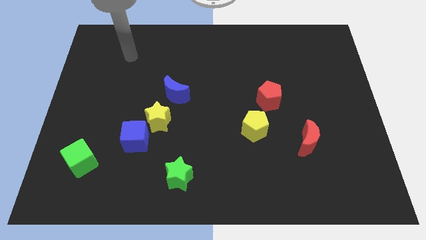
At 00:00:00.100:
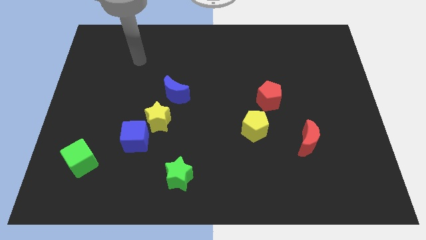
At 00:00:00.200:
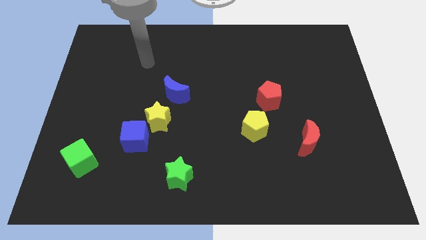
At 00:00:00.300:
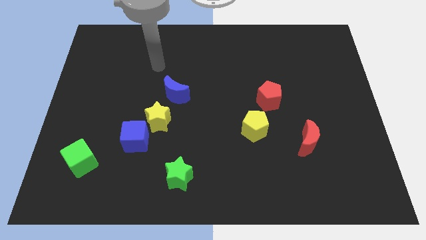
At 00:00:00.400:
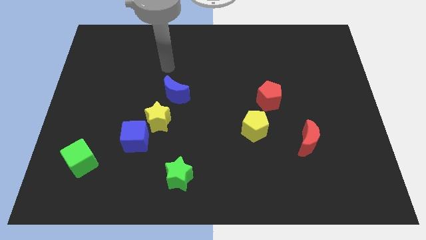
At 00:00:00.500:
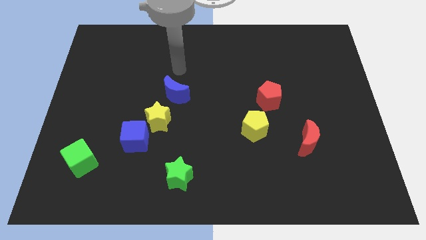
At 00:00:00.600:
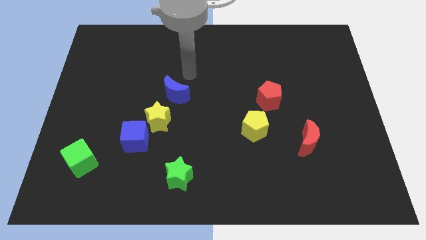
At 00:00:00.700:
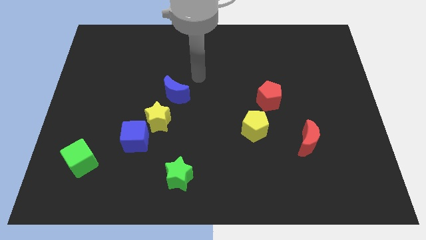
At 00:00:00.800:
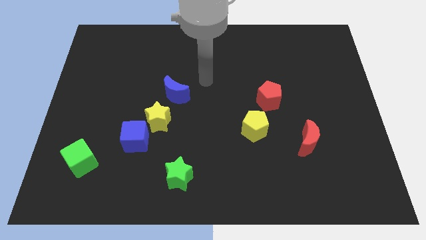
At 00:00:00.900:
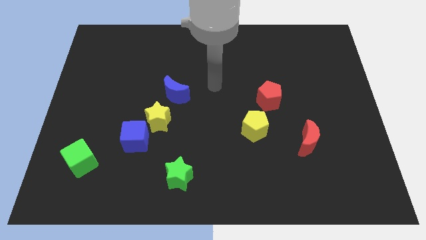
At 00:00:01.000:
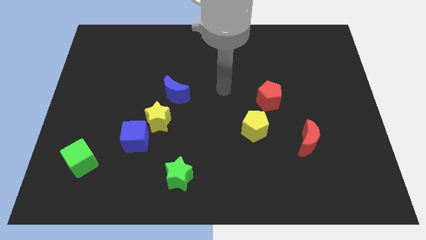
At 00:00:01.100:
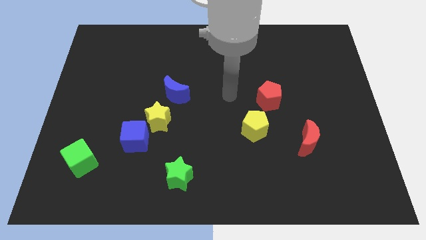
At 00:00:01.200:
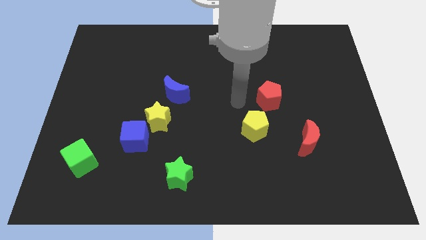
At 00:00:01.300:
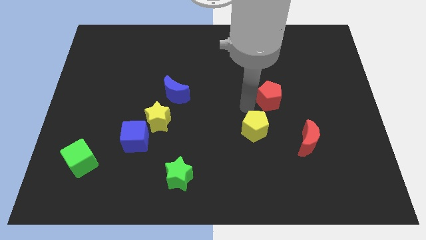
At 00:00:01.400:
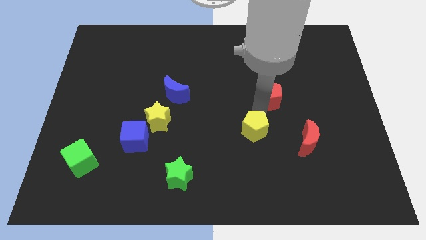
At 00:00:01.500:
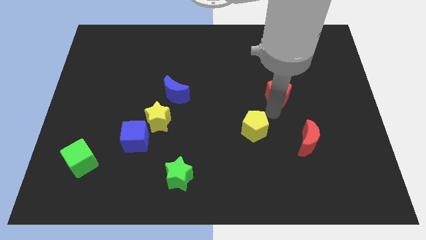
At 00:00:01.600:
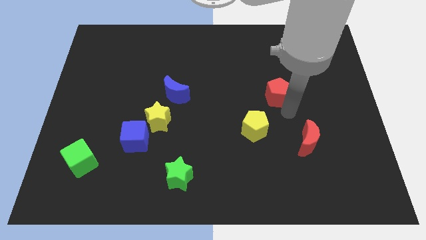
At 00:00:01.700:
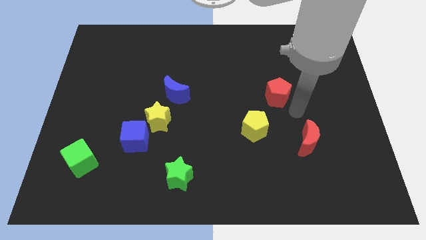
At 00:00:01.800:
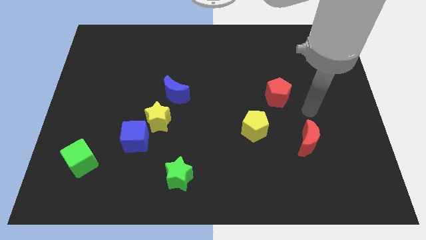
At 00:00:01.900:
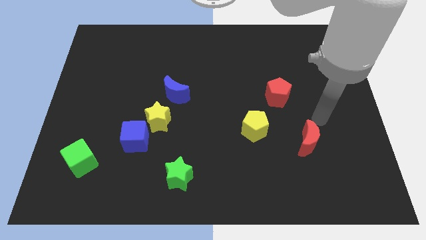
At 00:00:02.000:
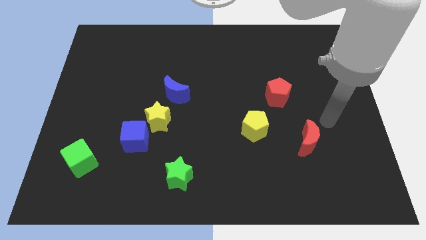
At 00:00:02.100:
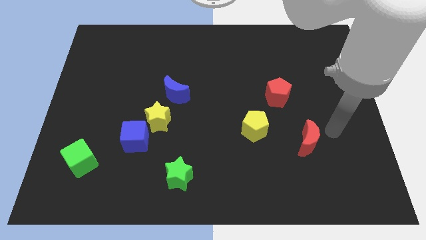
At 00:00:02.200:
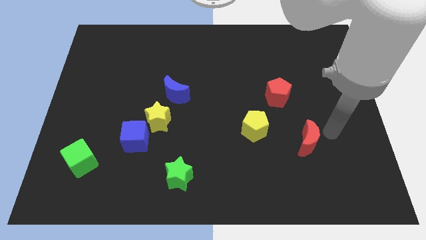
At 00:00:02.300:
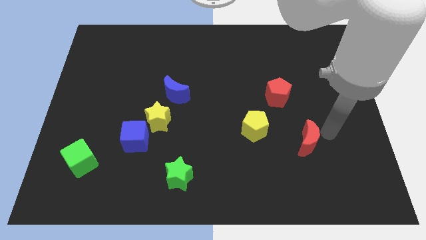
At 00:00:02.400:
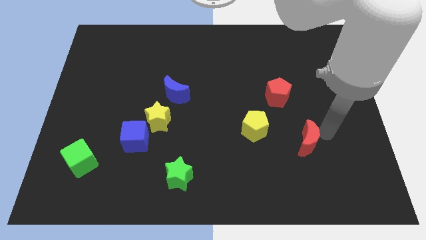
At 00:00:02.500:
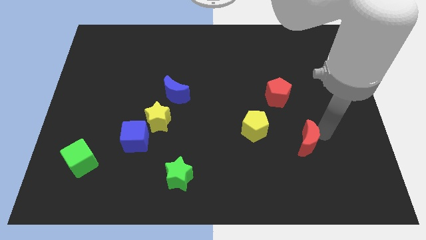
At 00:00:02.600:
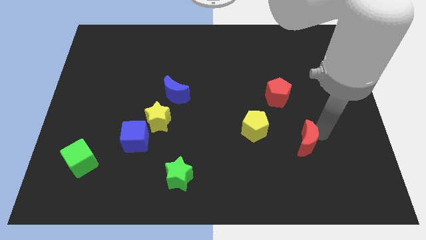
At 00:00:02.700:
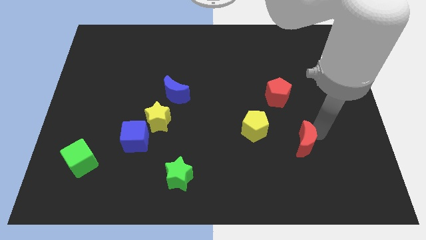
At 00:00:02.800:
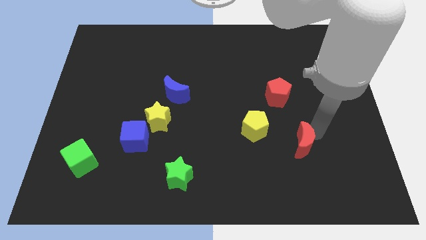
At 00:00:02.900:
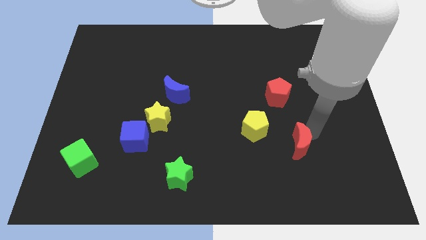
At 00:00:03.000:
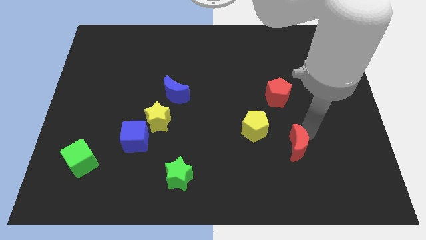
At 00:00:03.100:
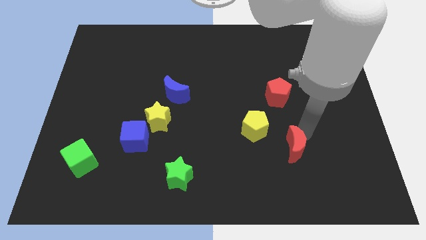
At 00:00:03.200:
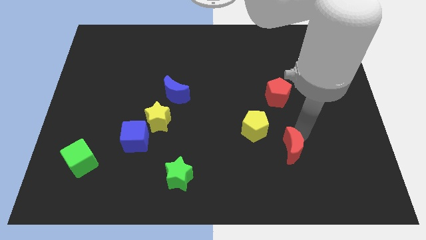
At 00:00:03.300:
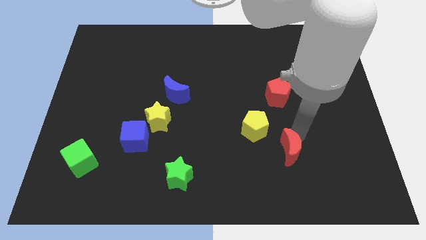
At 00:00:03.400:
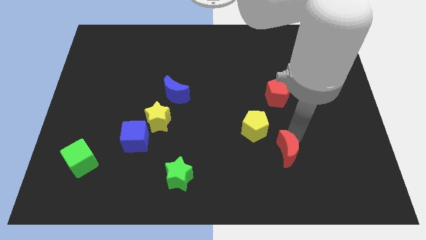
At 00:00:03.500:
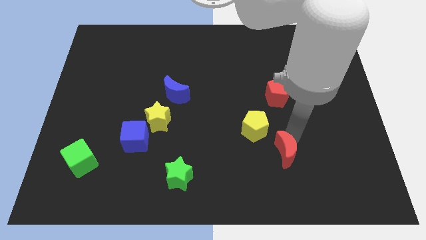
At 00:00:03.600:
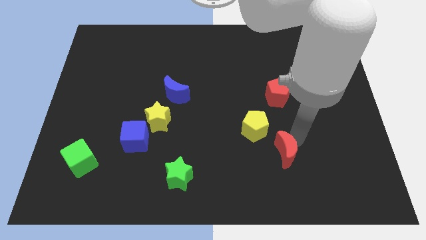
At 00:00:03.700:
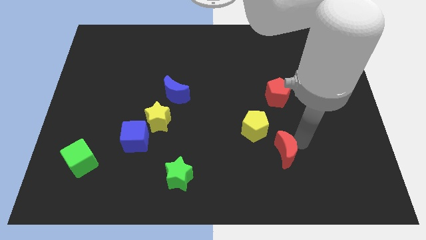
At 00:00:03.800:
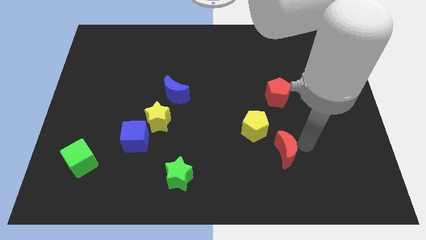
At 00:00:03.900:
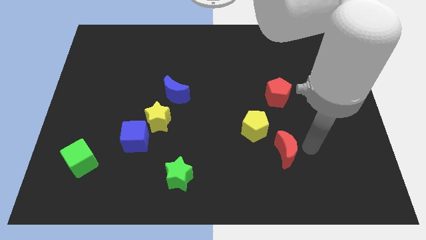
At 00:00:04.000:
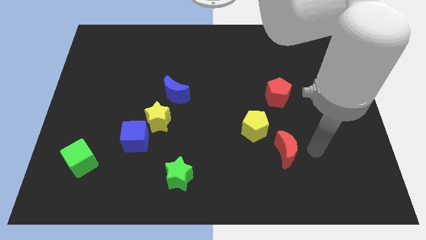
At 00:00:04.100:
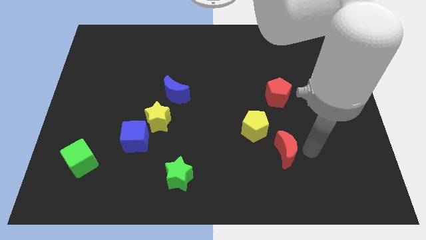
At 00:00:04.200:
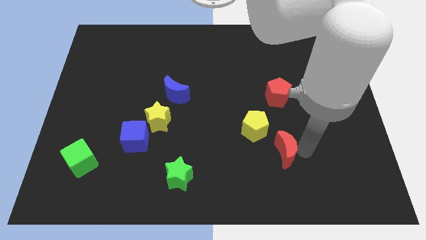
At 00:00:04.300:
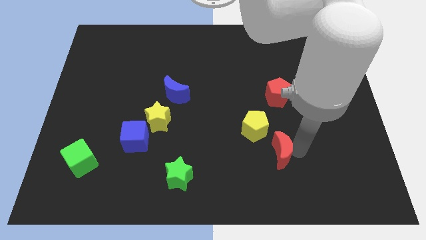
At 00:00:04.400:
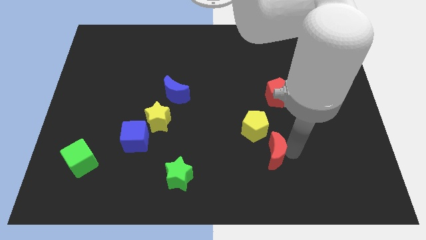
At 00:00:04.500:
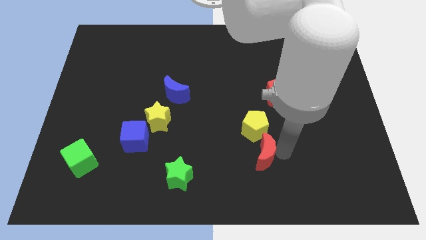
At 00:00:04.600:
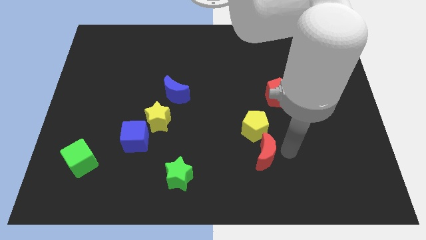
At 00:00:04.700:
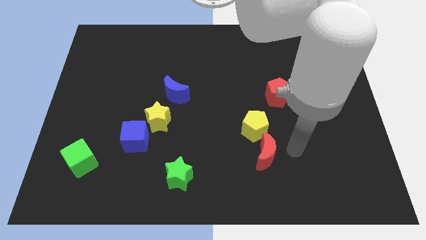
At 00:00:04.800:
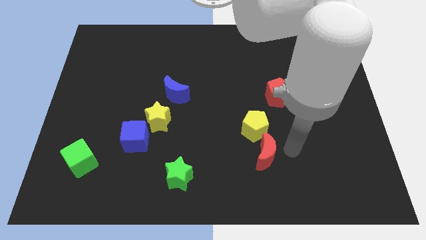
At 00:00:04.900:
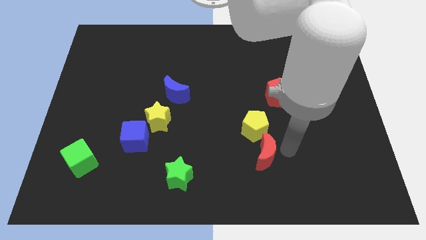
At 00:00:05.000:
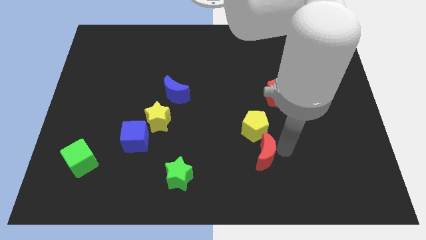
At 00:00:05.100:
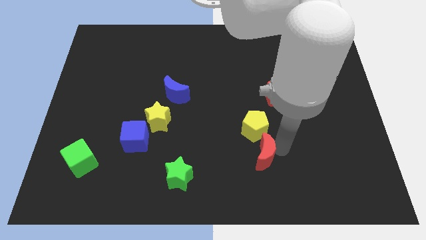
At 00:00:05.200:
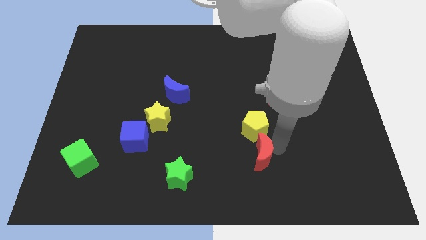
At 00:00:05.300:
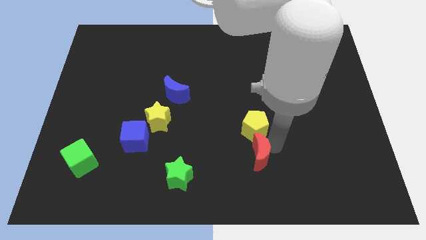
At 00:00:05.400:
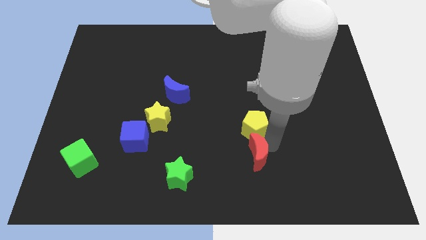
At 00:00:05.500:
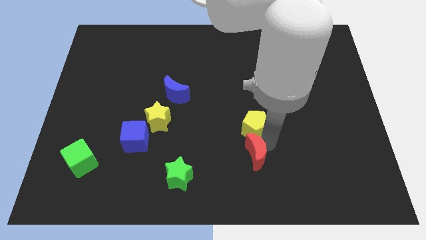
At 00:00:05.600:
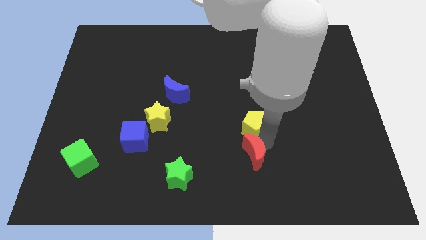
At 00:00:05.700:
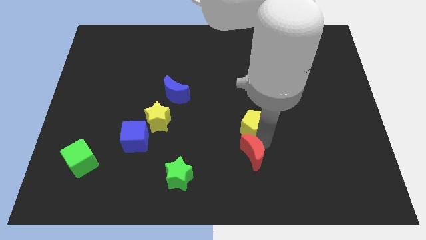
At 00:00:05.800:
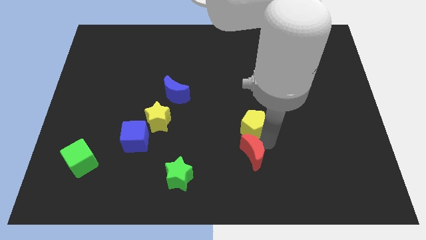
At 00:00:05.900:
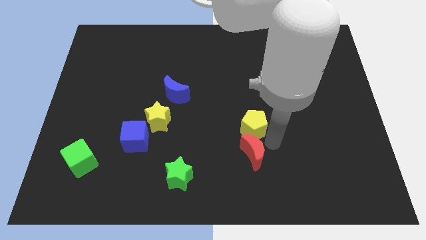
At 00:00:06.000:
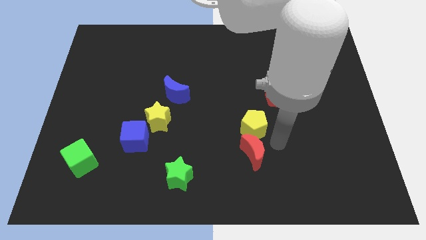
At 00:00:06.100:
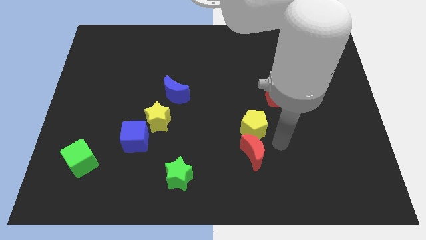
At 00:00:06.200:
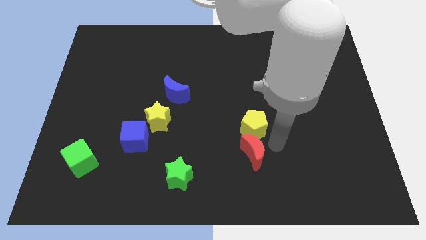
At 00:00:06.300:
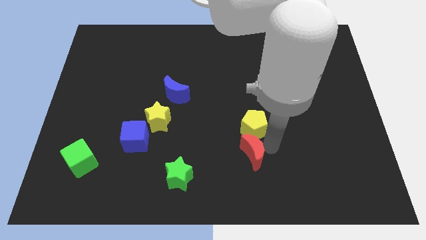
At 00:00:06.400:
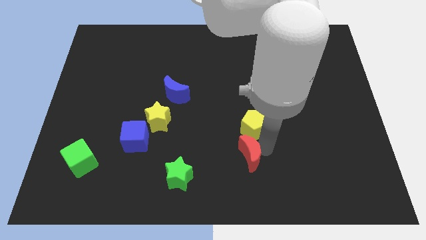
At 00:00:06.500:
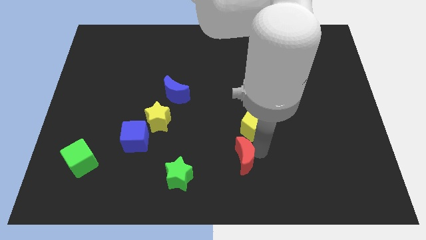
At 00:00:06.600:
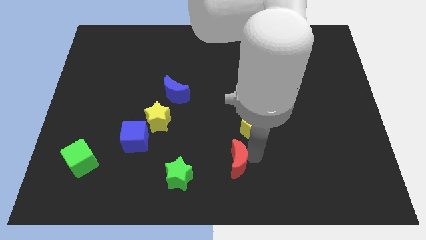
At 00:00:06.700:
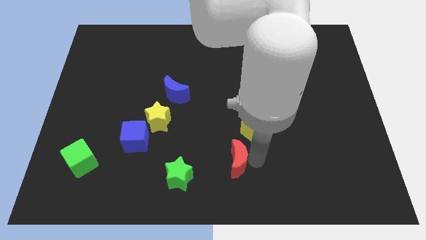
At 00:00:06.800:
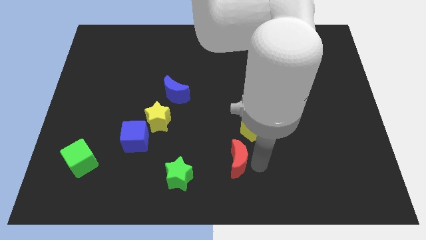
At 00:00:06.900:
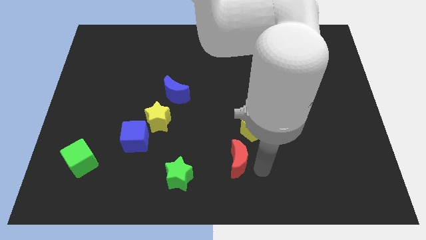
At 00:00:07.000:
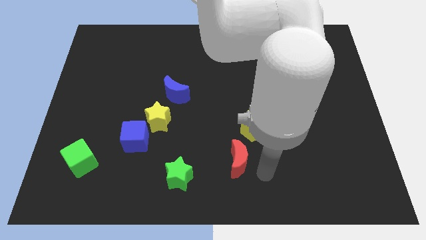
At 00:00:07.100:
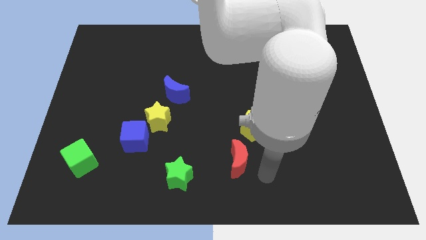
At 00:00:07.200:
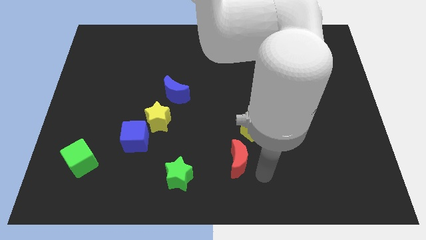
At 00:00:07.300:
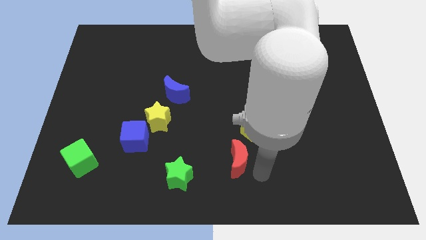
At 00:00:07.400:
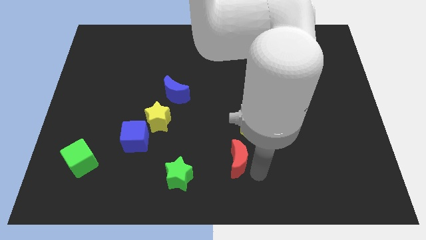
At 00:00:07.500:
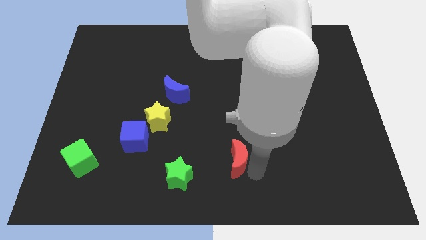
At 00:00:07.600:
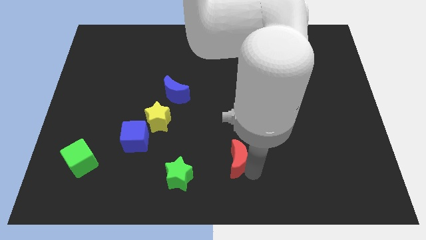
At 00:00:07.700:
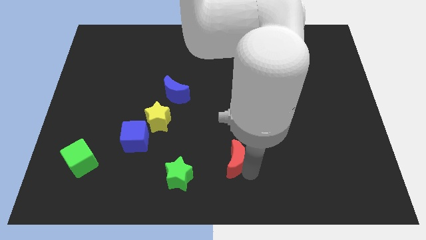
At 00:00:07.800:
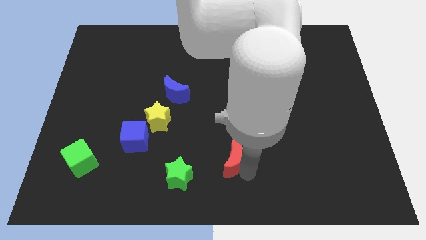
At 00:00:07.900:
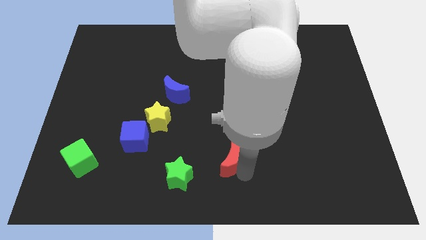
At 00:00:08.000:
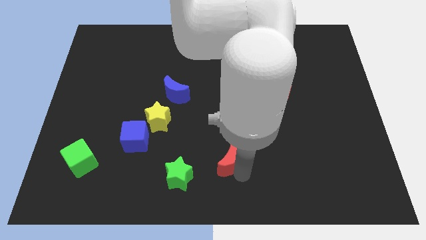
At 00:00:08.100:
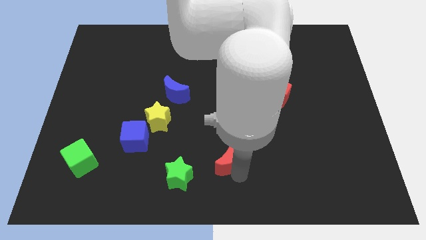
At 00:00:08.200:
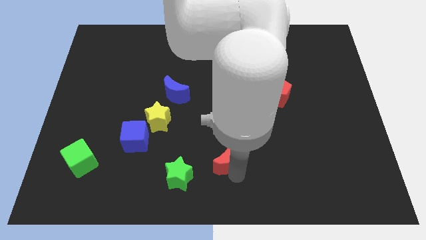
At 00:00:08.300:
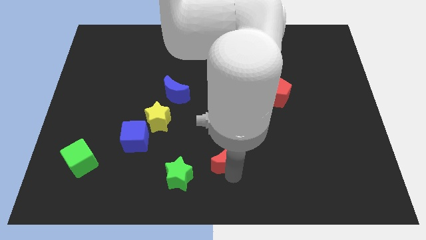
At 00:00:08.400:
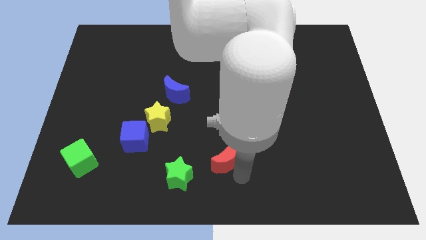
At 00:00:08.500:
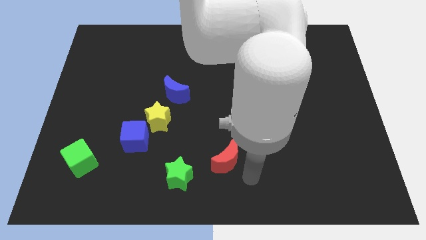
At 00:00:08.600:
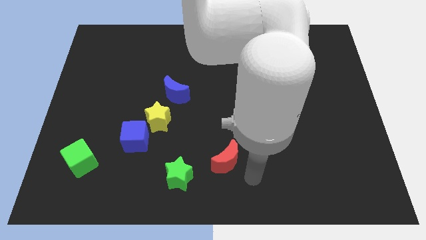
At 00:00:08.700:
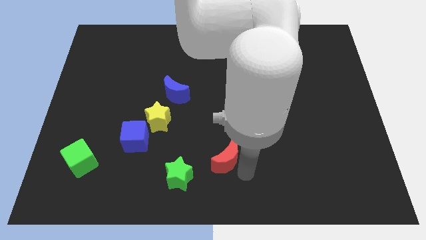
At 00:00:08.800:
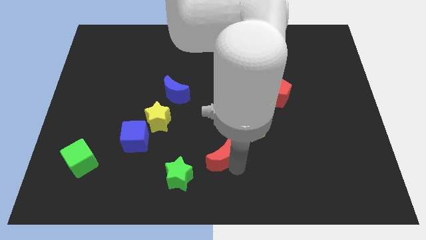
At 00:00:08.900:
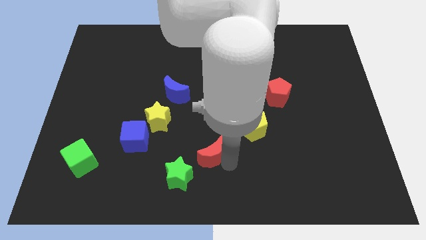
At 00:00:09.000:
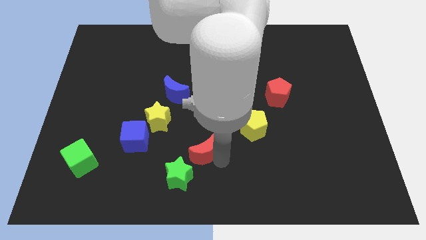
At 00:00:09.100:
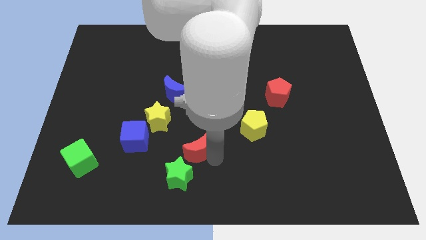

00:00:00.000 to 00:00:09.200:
slide the red moon diagonally down and to the right of the yellow star
